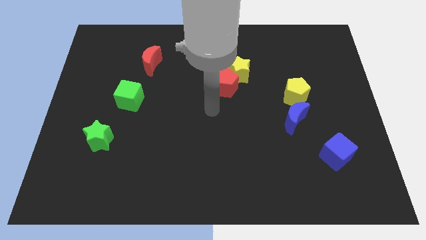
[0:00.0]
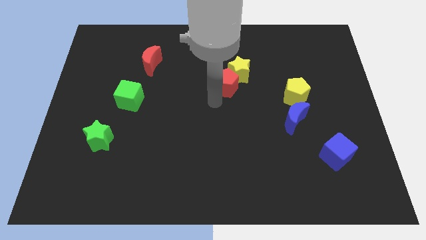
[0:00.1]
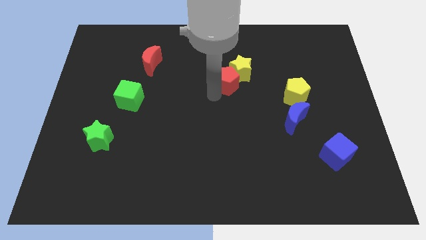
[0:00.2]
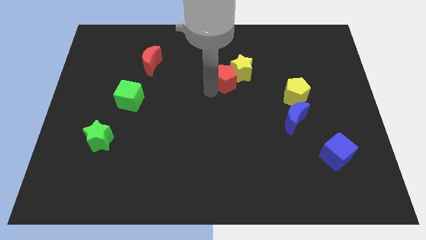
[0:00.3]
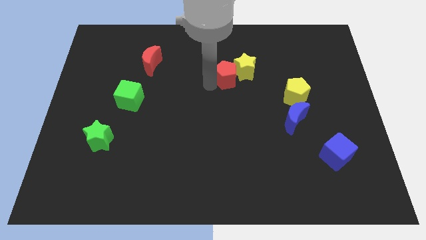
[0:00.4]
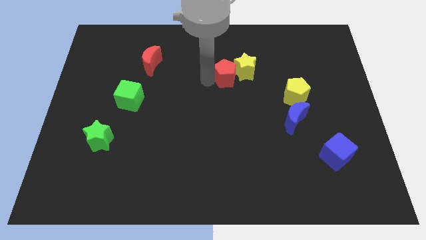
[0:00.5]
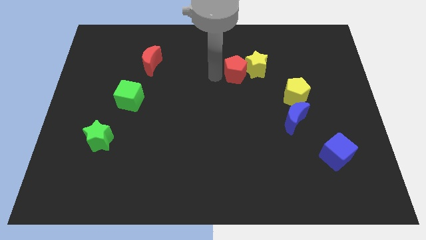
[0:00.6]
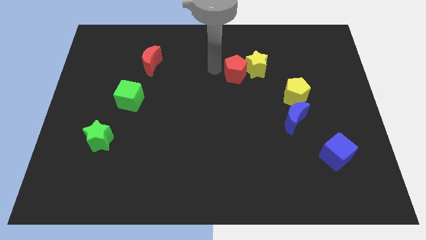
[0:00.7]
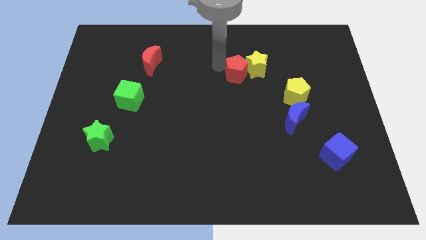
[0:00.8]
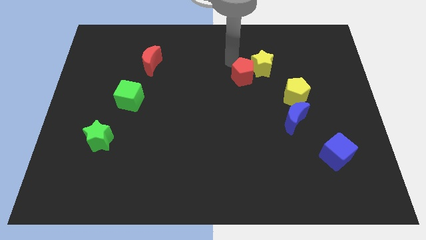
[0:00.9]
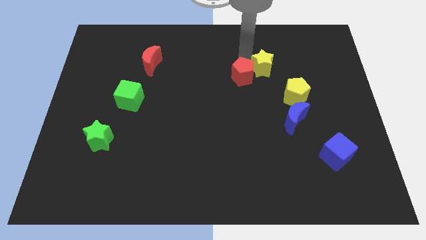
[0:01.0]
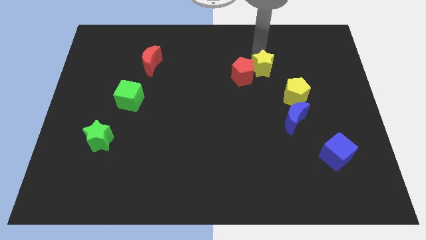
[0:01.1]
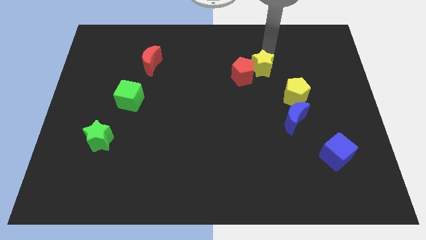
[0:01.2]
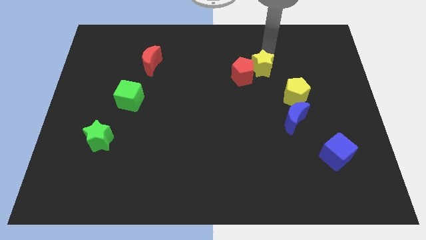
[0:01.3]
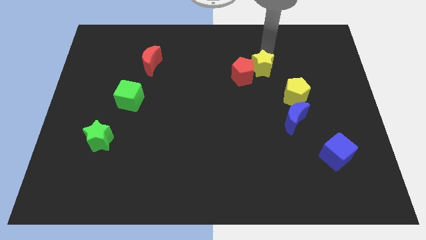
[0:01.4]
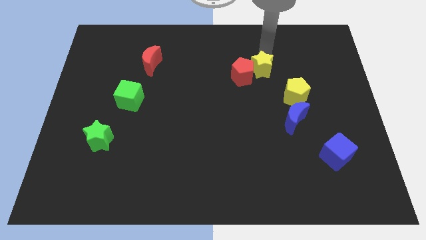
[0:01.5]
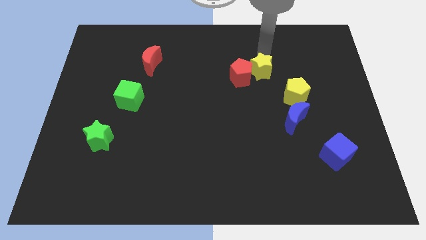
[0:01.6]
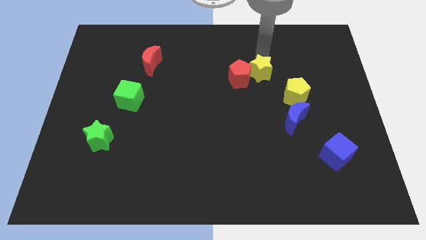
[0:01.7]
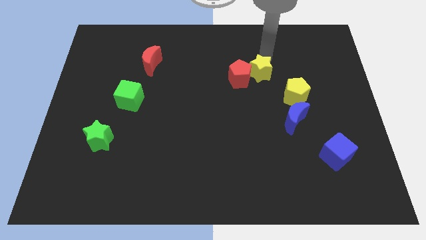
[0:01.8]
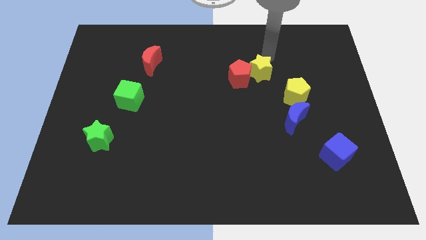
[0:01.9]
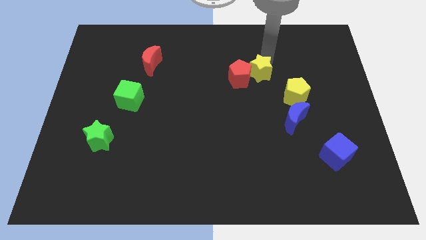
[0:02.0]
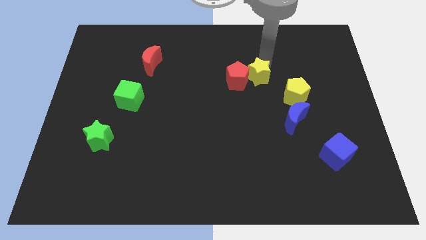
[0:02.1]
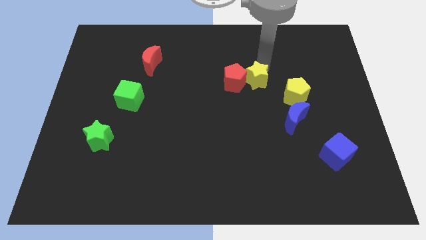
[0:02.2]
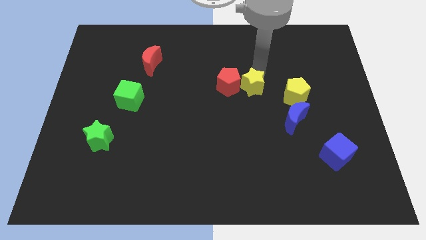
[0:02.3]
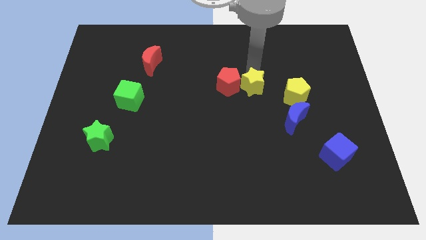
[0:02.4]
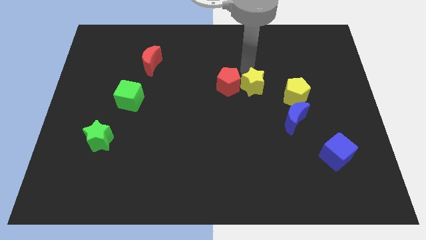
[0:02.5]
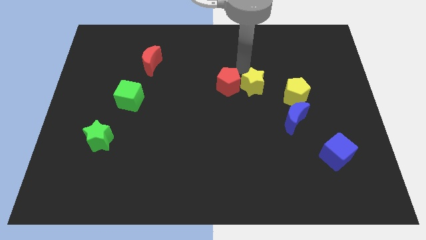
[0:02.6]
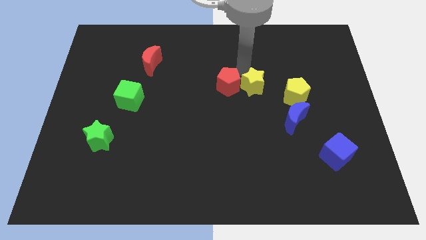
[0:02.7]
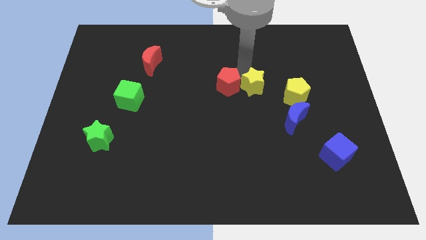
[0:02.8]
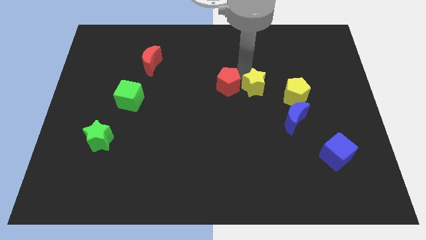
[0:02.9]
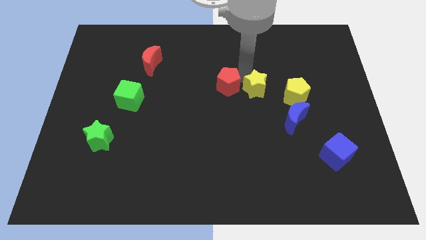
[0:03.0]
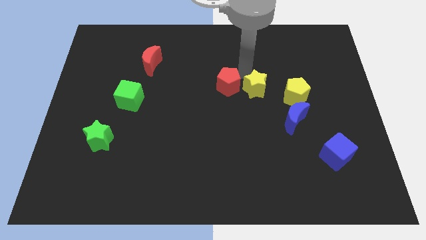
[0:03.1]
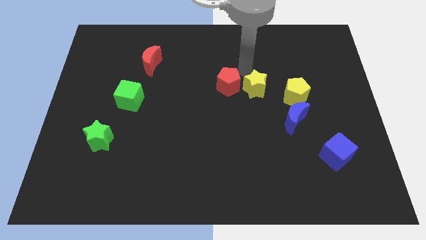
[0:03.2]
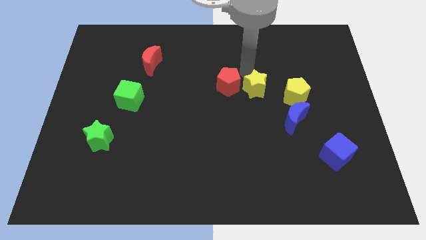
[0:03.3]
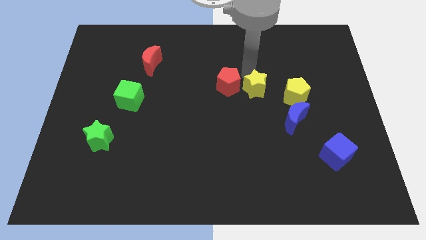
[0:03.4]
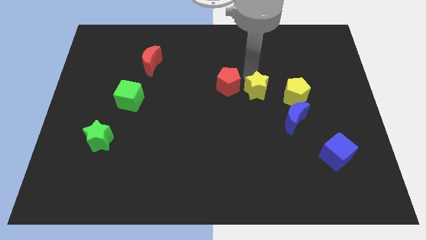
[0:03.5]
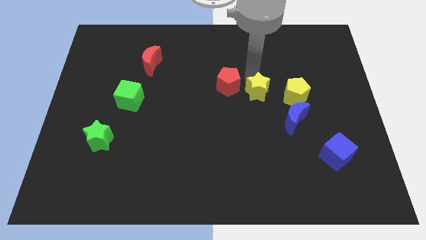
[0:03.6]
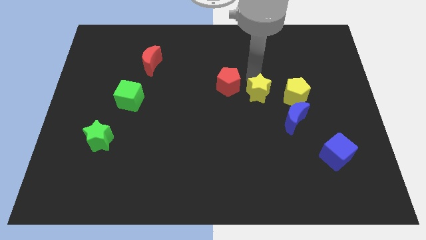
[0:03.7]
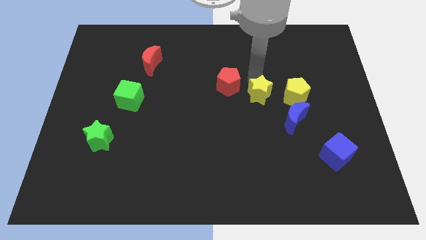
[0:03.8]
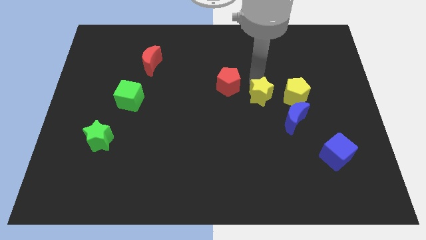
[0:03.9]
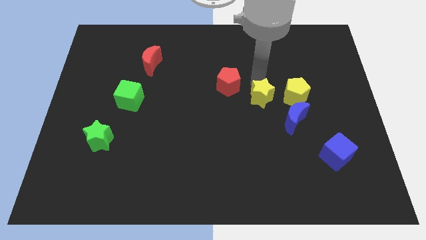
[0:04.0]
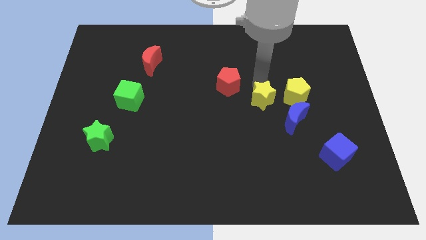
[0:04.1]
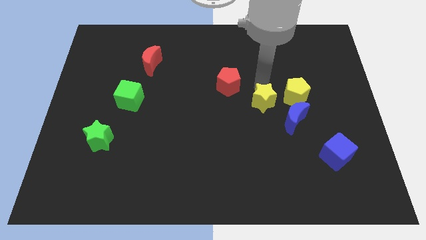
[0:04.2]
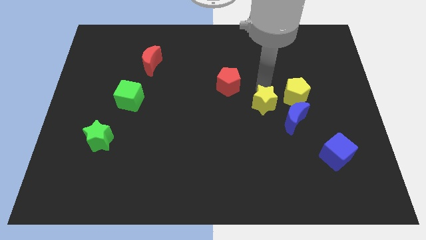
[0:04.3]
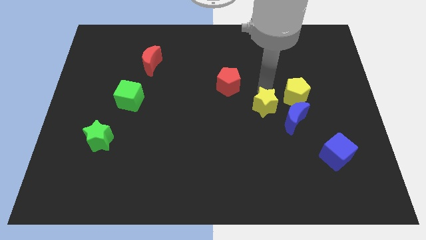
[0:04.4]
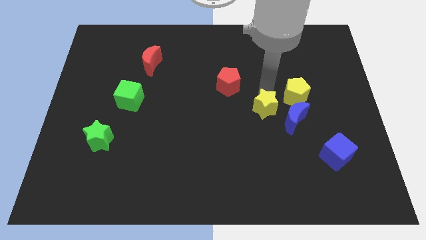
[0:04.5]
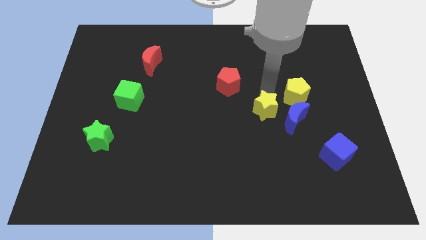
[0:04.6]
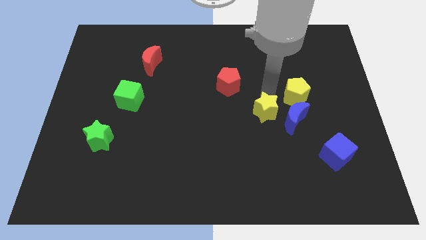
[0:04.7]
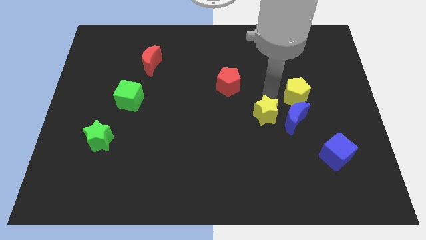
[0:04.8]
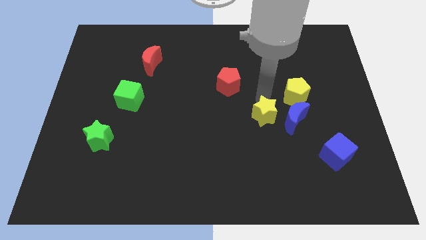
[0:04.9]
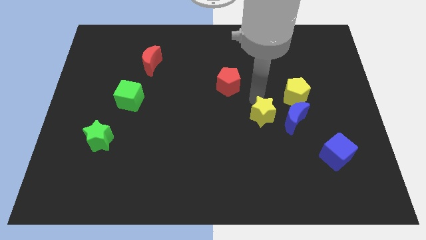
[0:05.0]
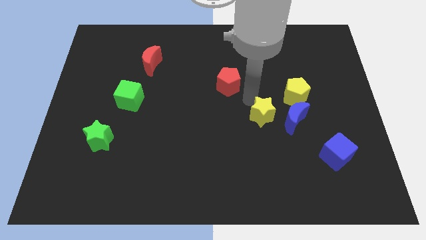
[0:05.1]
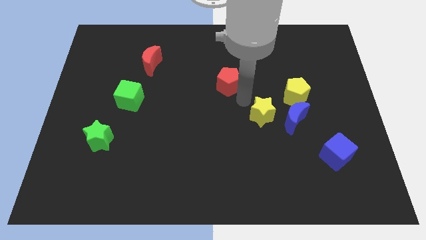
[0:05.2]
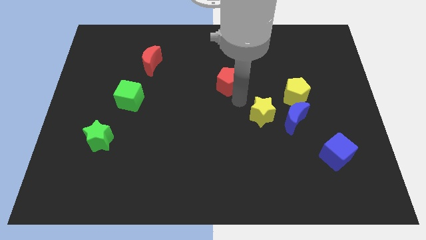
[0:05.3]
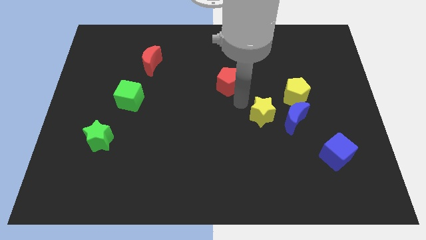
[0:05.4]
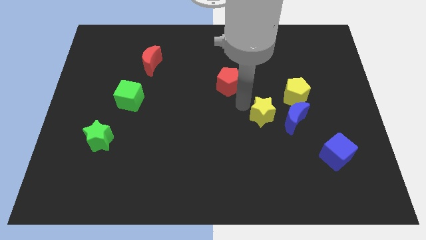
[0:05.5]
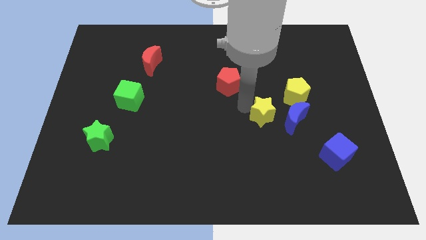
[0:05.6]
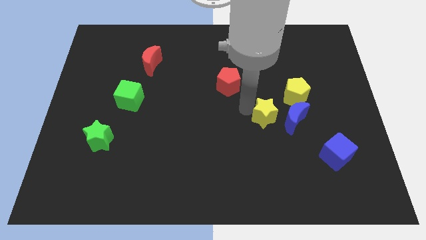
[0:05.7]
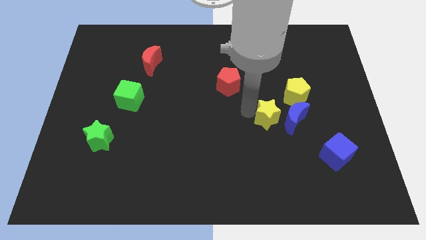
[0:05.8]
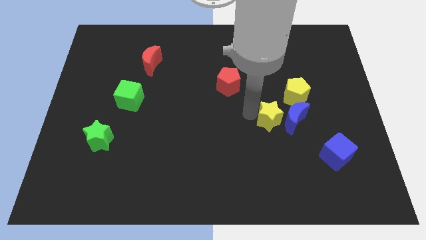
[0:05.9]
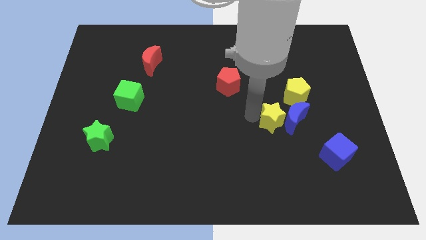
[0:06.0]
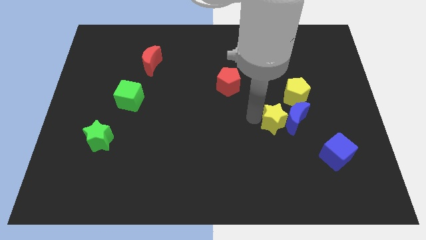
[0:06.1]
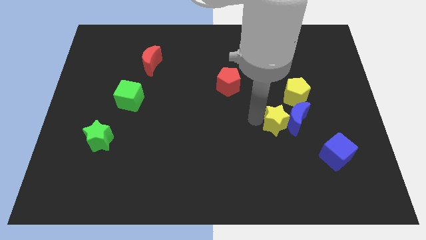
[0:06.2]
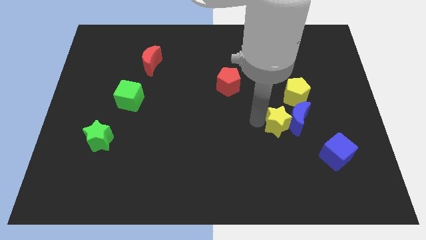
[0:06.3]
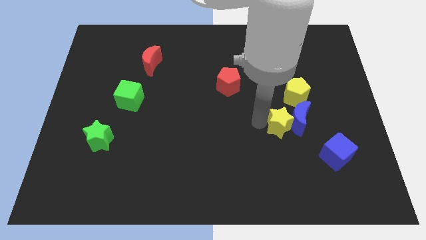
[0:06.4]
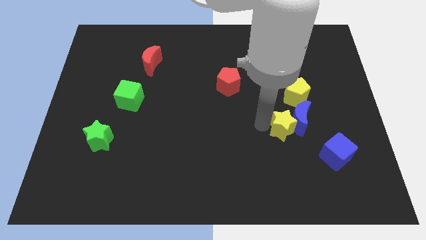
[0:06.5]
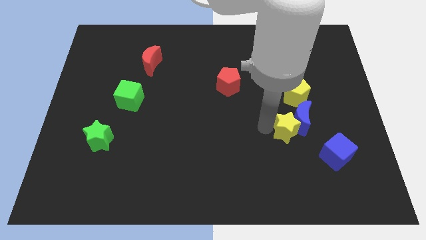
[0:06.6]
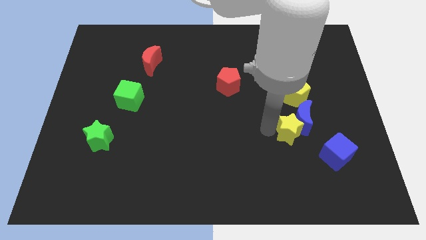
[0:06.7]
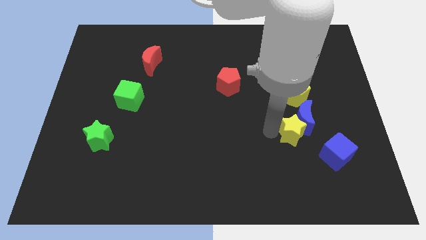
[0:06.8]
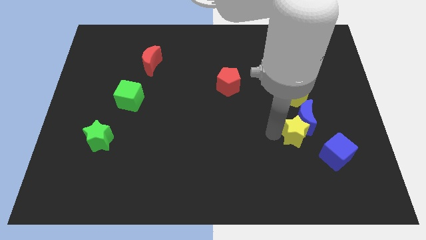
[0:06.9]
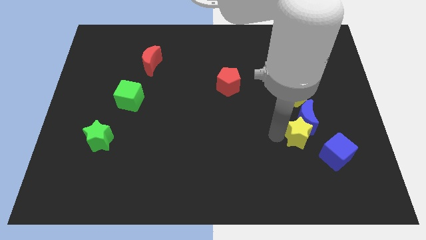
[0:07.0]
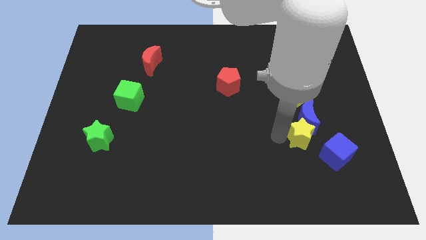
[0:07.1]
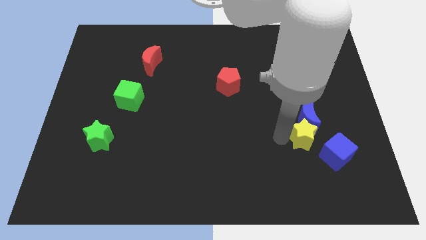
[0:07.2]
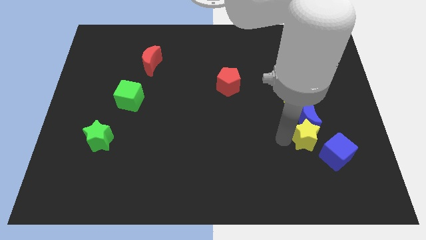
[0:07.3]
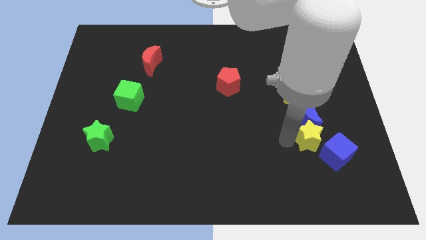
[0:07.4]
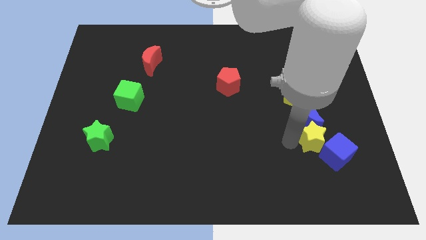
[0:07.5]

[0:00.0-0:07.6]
slide the yellow star next to the blue cube

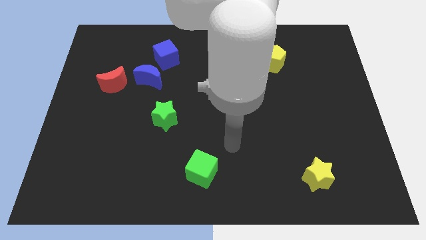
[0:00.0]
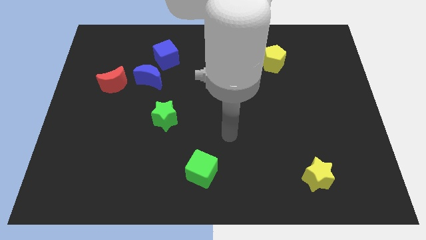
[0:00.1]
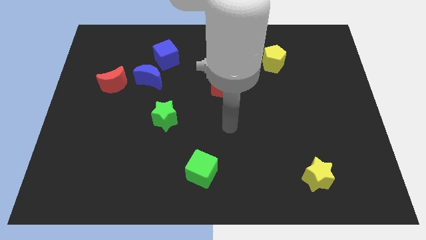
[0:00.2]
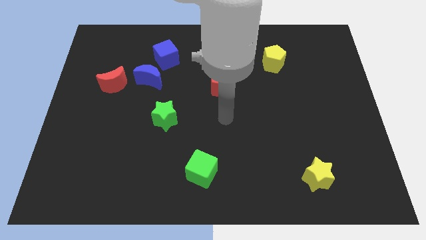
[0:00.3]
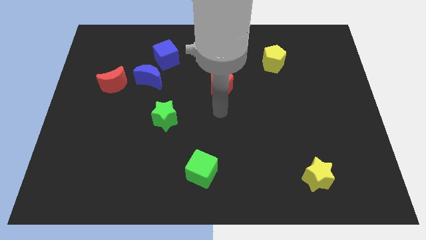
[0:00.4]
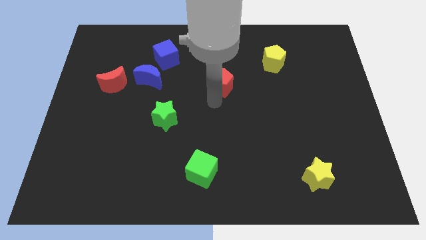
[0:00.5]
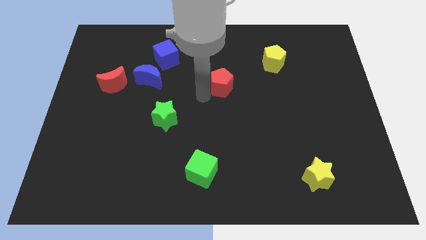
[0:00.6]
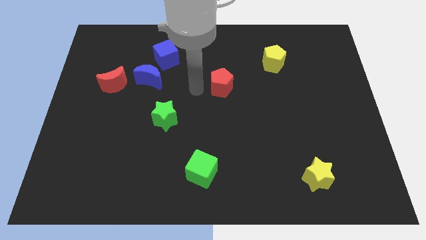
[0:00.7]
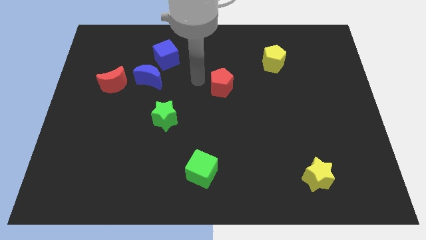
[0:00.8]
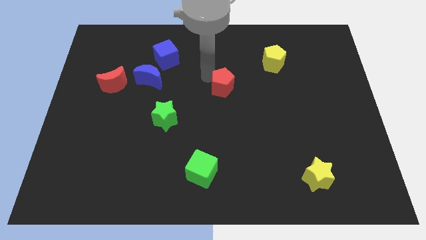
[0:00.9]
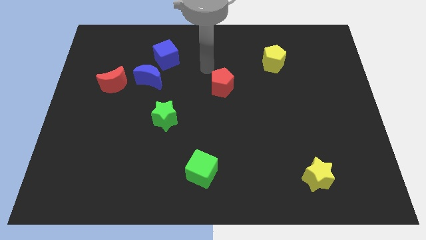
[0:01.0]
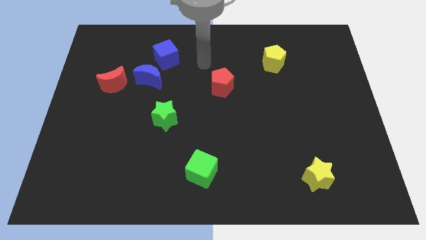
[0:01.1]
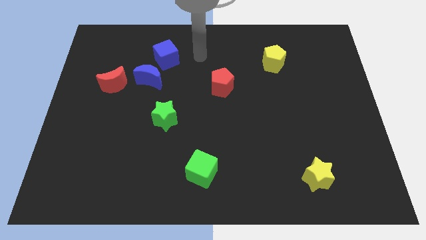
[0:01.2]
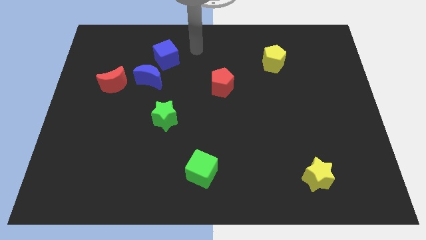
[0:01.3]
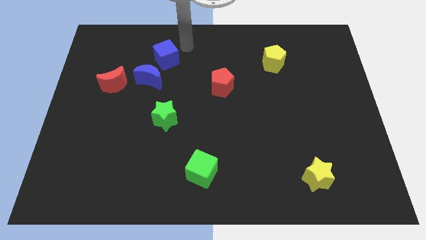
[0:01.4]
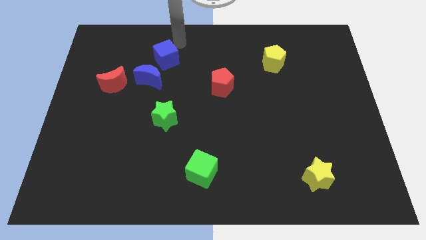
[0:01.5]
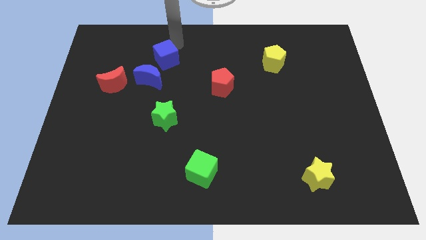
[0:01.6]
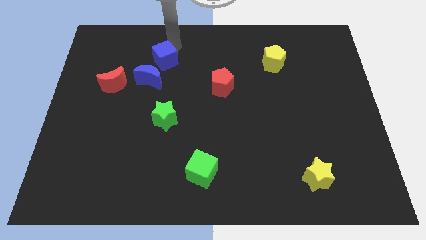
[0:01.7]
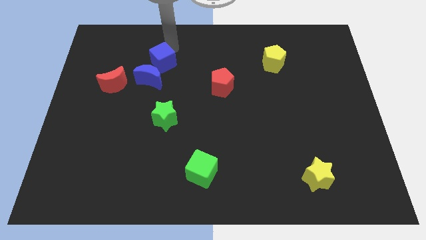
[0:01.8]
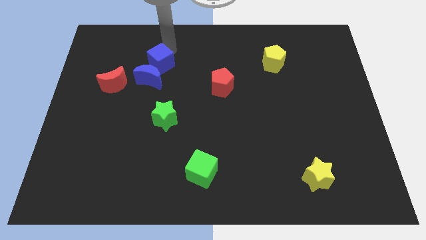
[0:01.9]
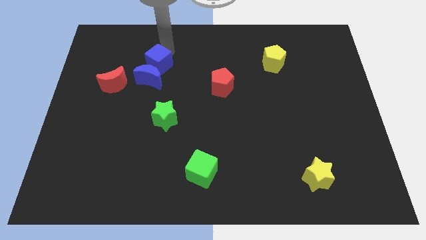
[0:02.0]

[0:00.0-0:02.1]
put the blue cube towards the blue moon
